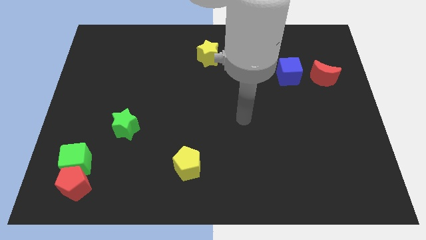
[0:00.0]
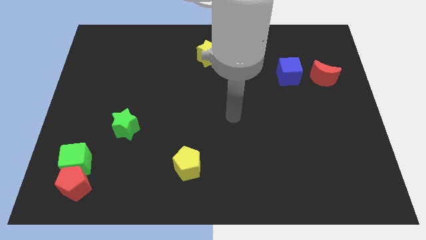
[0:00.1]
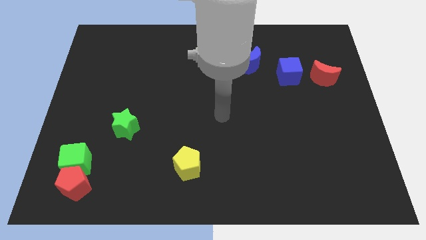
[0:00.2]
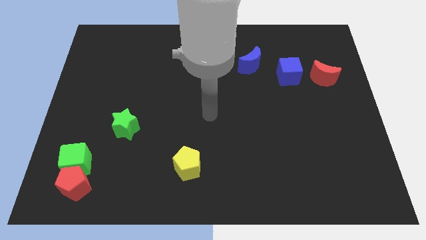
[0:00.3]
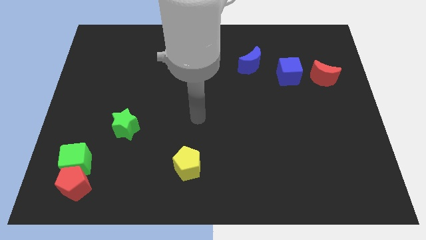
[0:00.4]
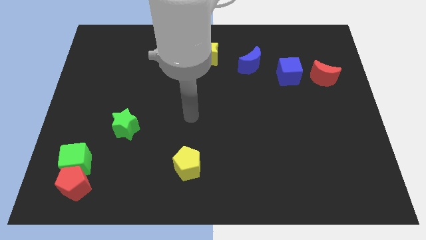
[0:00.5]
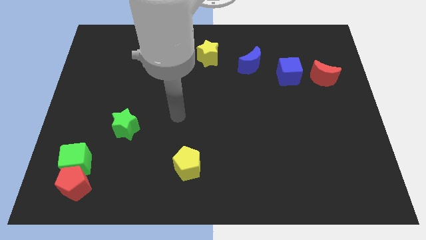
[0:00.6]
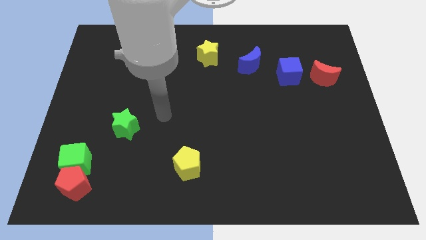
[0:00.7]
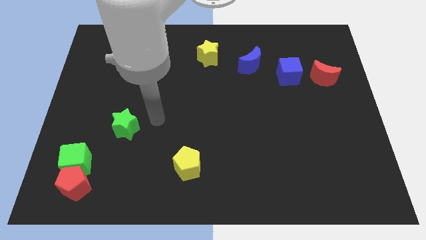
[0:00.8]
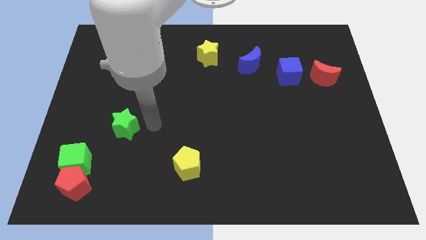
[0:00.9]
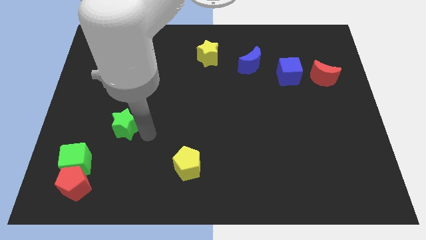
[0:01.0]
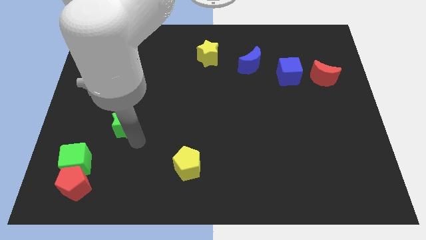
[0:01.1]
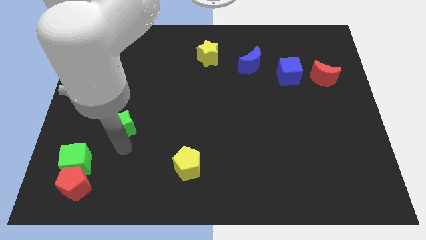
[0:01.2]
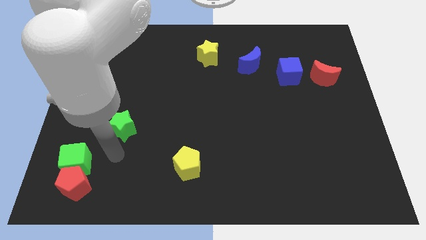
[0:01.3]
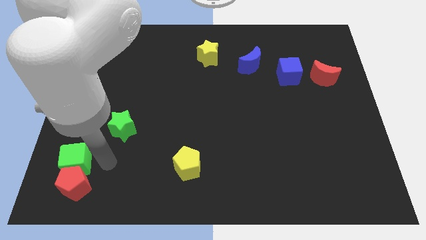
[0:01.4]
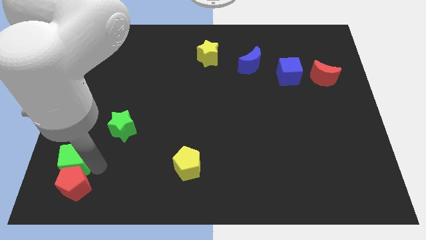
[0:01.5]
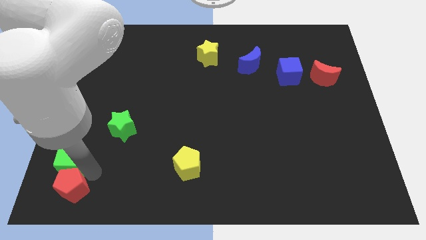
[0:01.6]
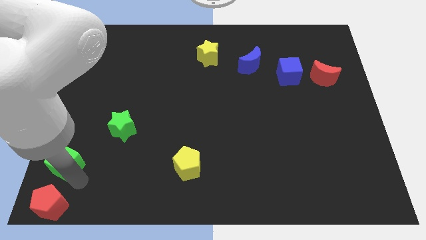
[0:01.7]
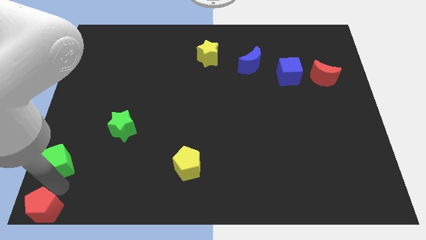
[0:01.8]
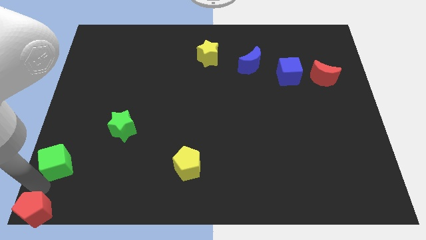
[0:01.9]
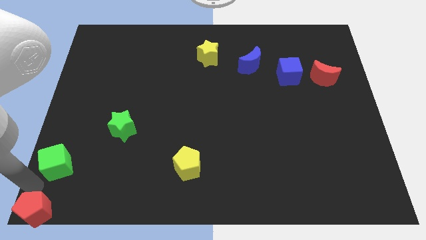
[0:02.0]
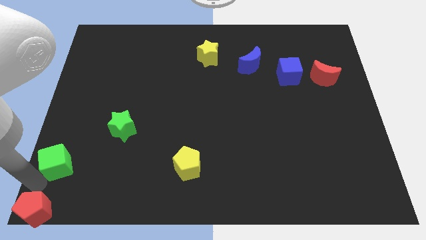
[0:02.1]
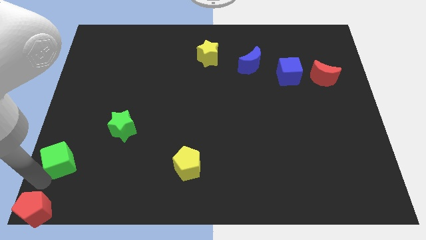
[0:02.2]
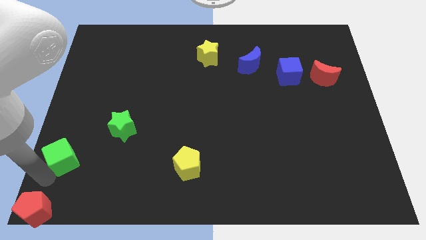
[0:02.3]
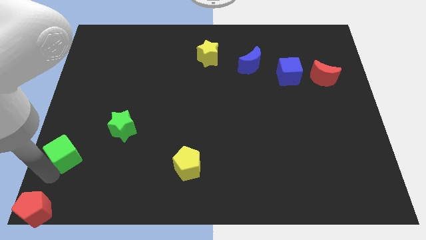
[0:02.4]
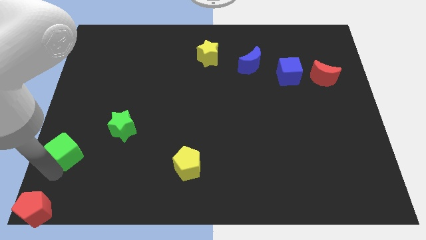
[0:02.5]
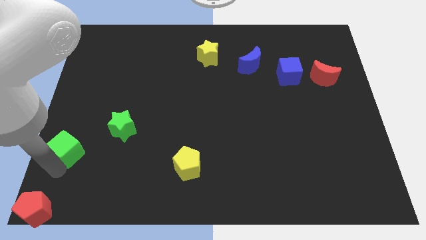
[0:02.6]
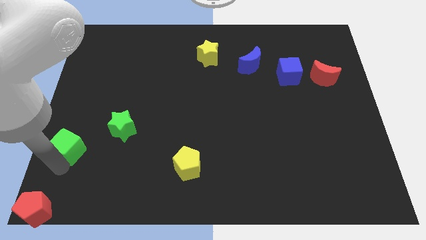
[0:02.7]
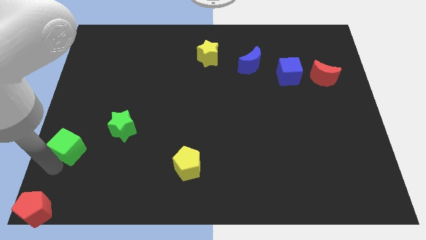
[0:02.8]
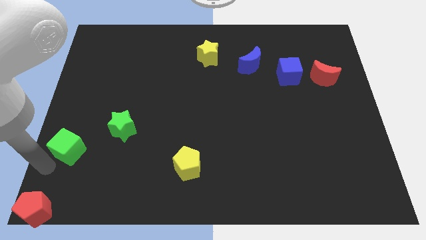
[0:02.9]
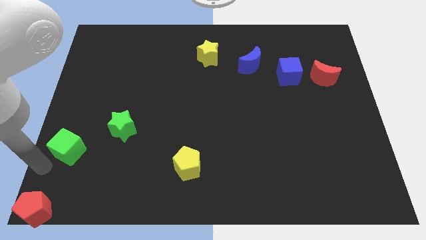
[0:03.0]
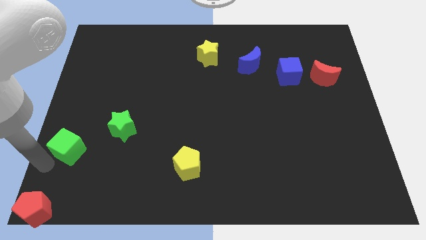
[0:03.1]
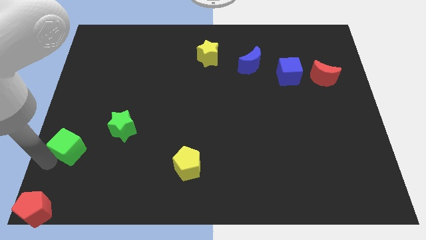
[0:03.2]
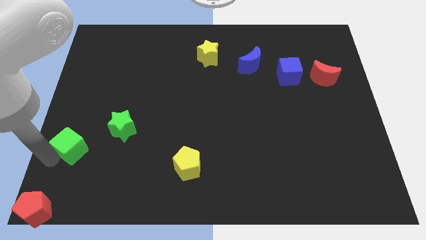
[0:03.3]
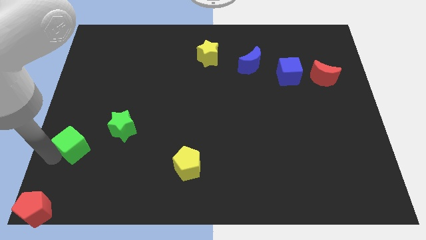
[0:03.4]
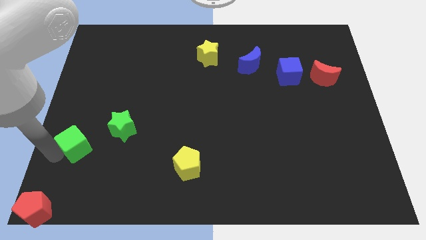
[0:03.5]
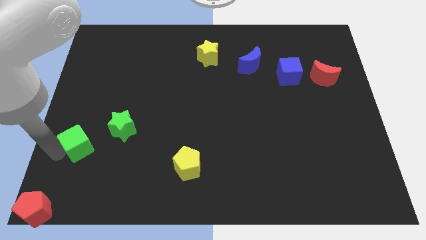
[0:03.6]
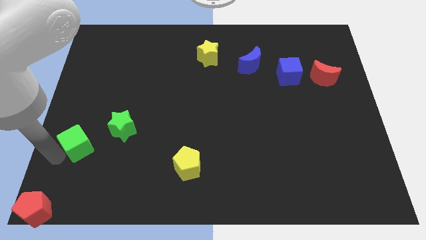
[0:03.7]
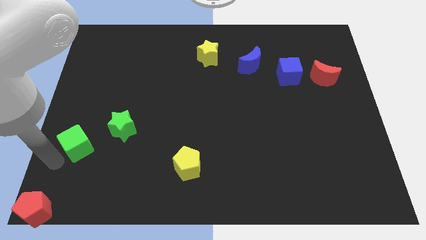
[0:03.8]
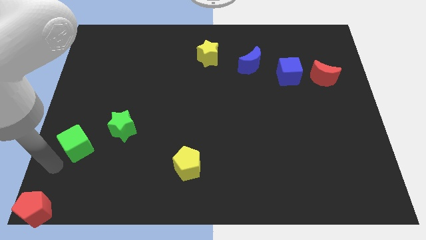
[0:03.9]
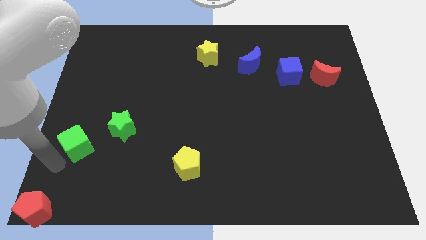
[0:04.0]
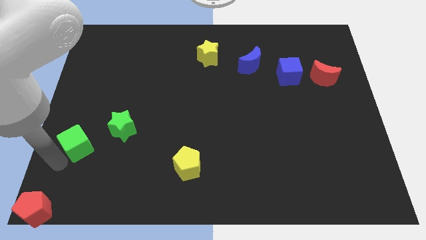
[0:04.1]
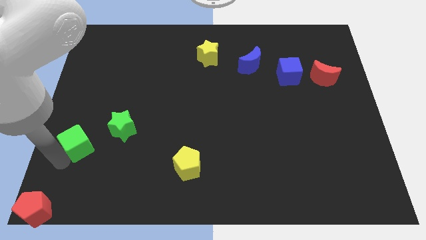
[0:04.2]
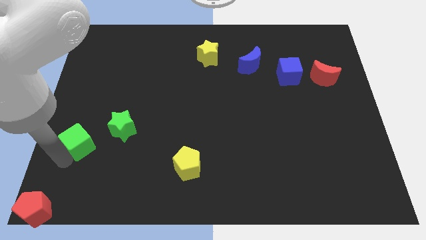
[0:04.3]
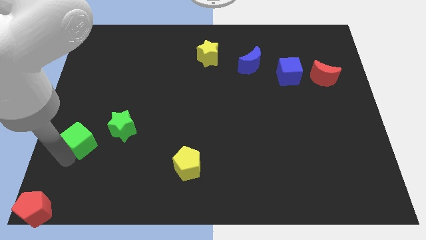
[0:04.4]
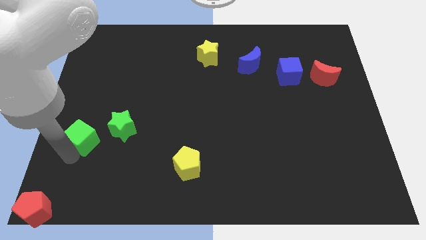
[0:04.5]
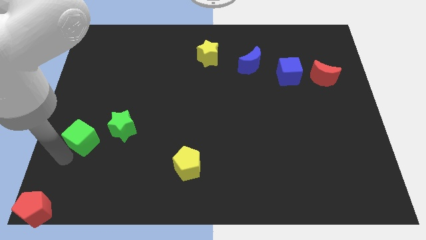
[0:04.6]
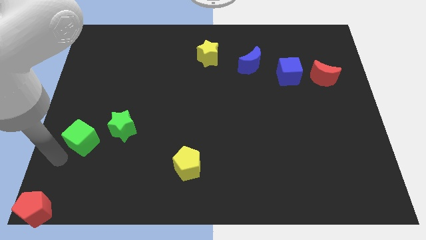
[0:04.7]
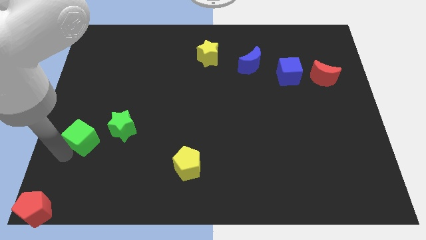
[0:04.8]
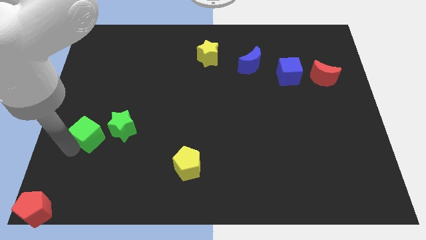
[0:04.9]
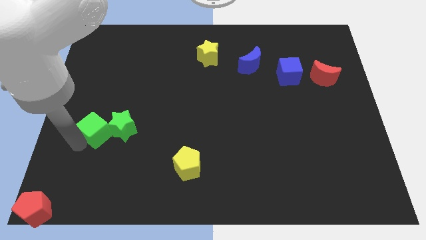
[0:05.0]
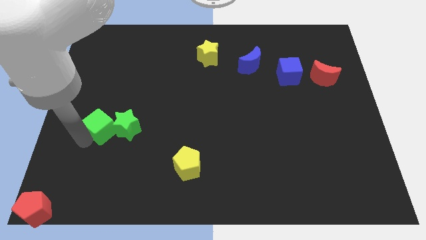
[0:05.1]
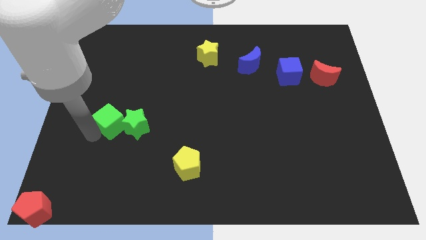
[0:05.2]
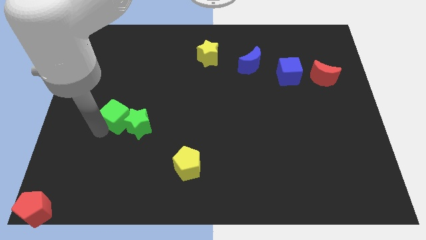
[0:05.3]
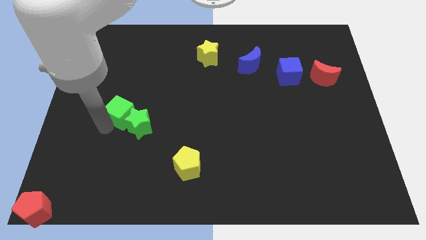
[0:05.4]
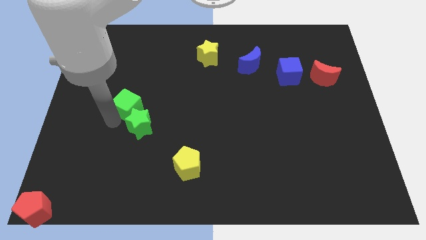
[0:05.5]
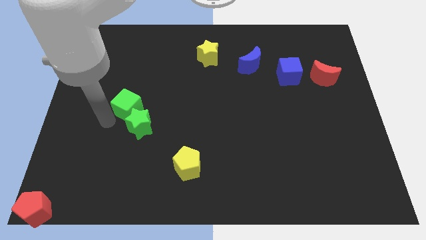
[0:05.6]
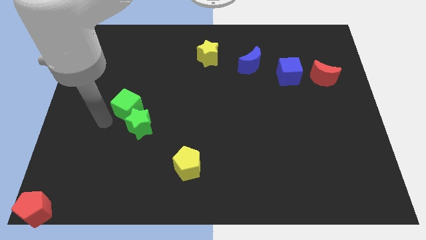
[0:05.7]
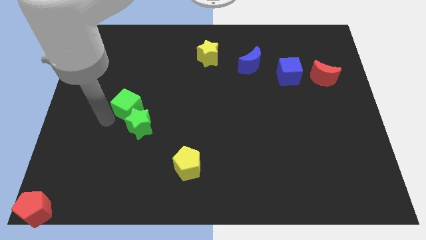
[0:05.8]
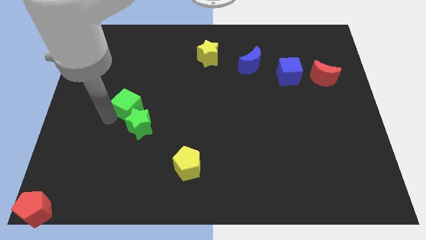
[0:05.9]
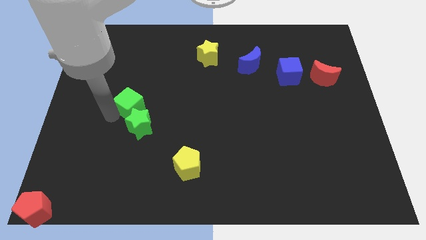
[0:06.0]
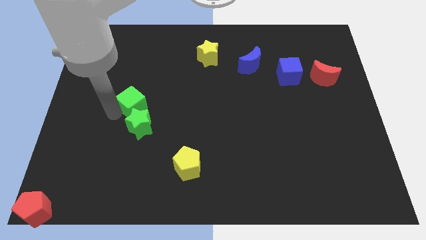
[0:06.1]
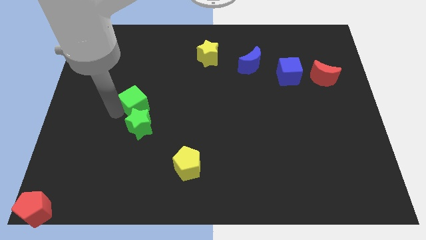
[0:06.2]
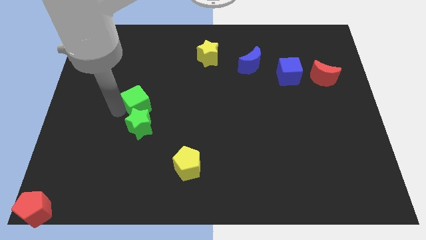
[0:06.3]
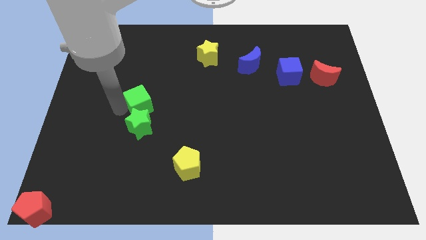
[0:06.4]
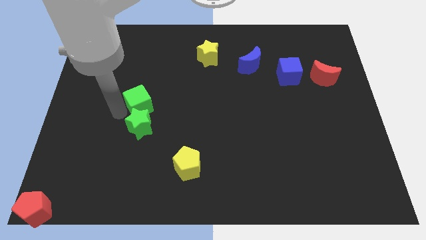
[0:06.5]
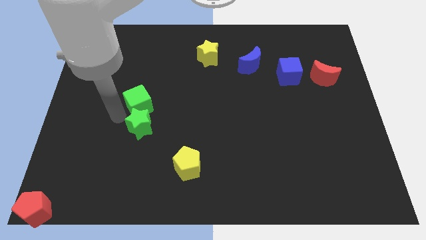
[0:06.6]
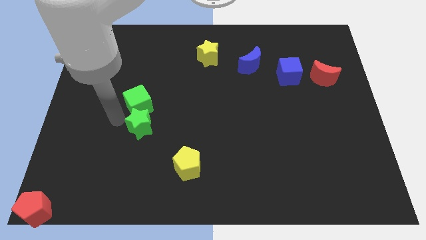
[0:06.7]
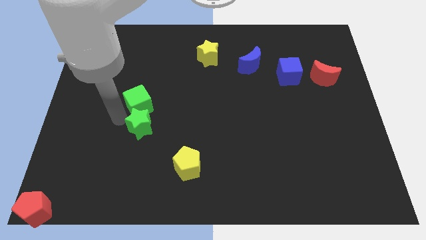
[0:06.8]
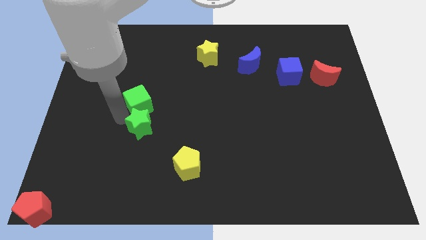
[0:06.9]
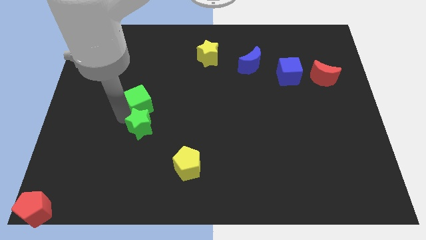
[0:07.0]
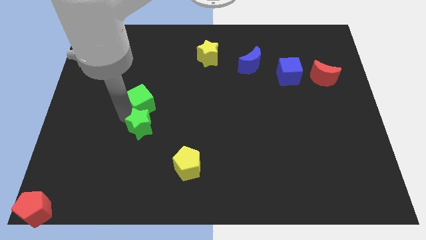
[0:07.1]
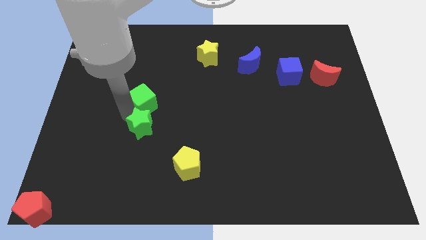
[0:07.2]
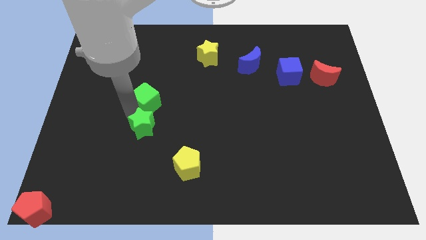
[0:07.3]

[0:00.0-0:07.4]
push the green cube upwards and to the right diagonally
